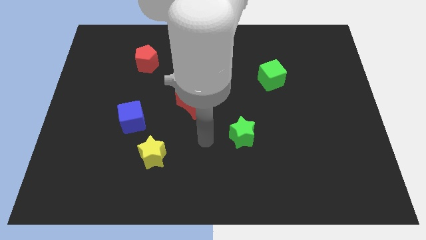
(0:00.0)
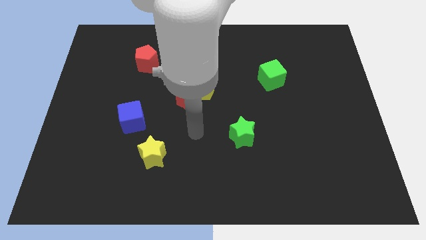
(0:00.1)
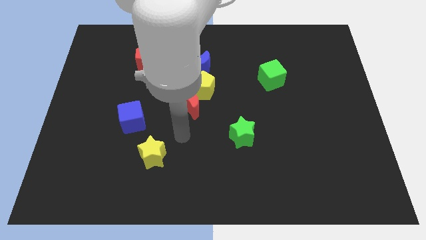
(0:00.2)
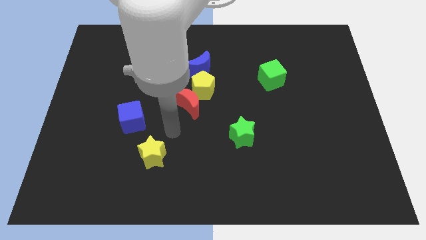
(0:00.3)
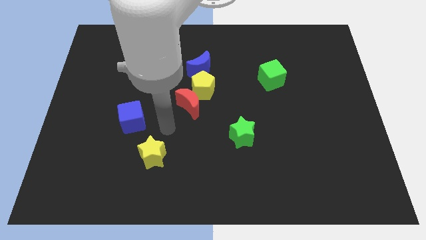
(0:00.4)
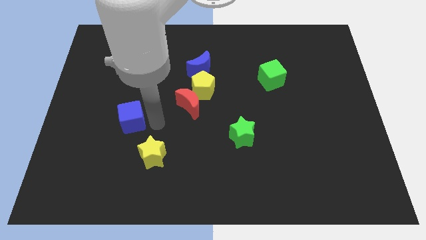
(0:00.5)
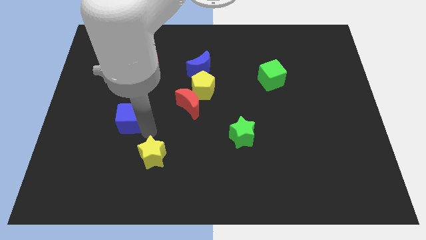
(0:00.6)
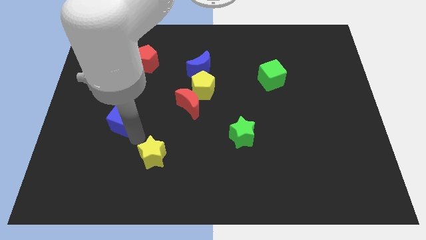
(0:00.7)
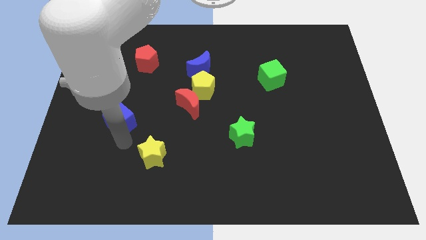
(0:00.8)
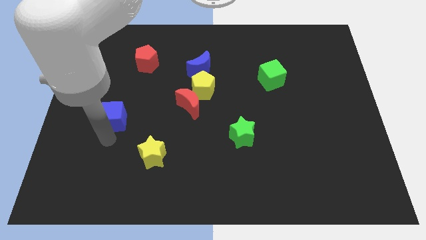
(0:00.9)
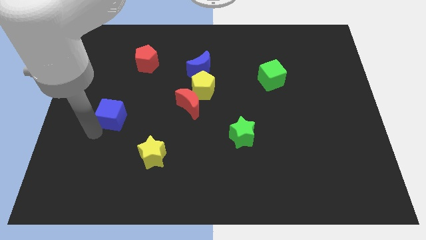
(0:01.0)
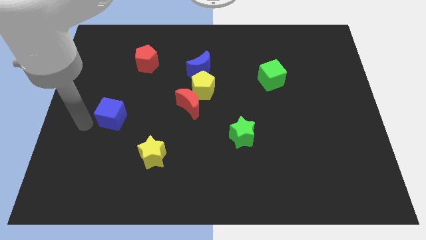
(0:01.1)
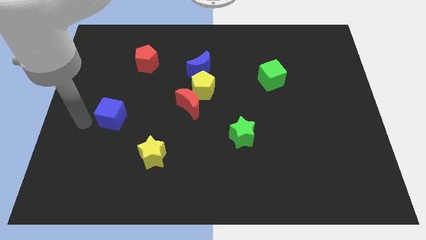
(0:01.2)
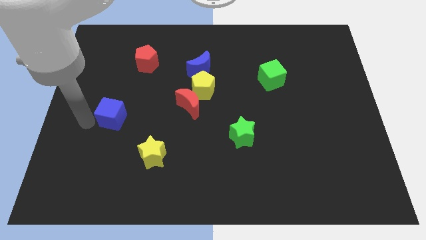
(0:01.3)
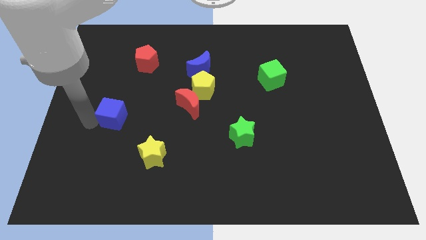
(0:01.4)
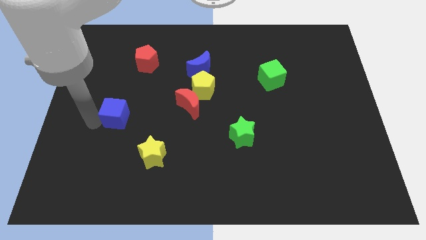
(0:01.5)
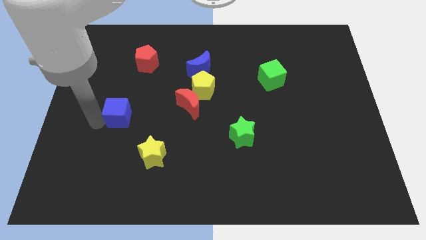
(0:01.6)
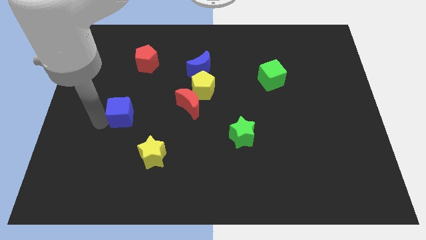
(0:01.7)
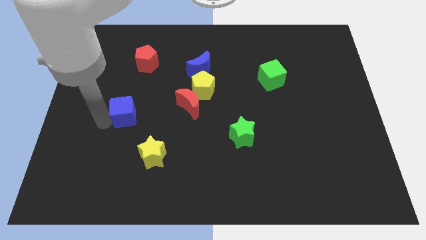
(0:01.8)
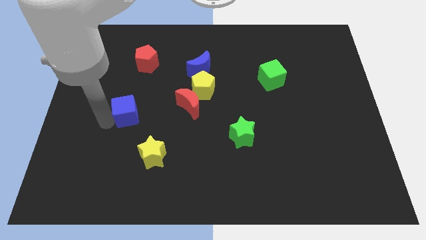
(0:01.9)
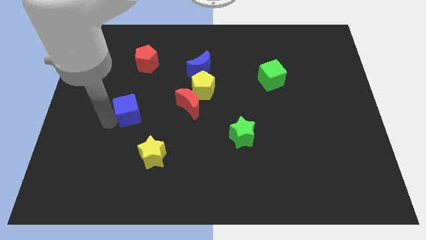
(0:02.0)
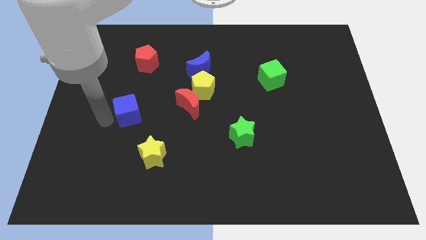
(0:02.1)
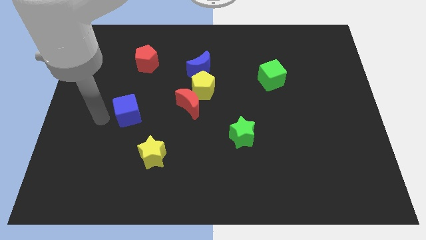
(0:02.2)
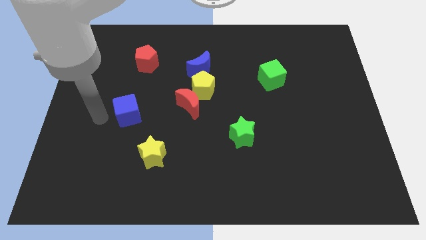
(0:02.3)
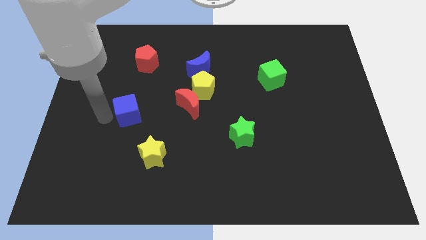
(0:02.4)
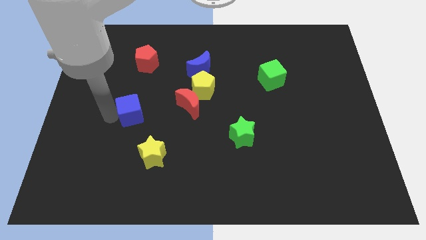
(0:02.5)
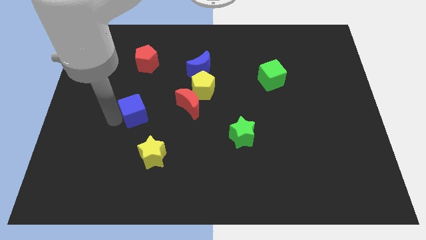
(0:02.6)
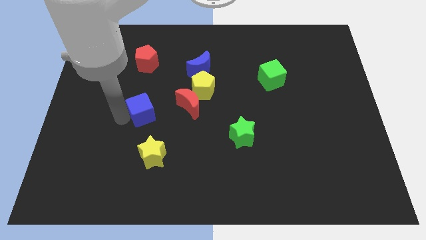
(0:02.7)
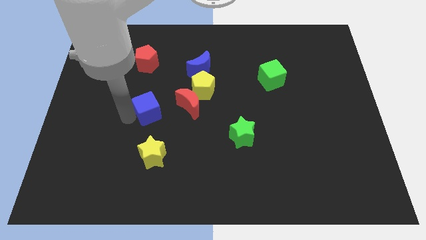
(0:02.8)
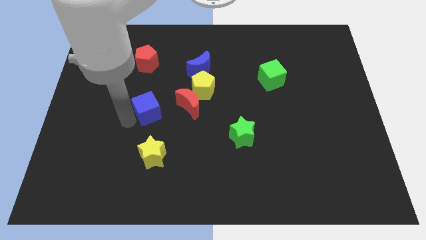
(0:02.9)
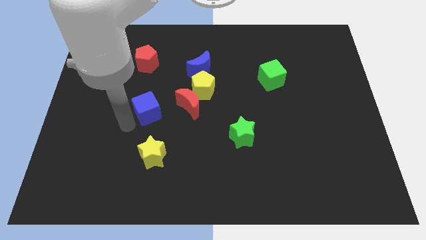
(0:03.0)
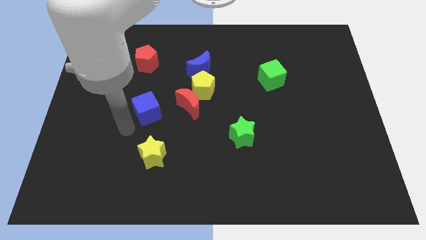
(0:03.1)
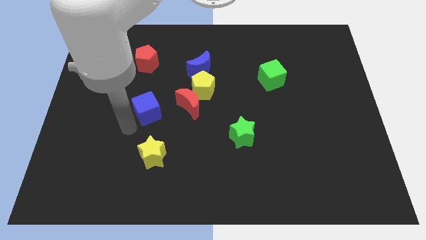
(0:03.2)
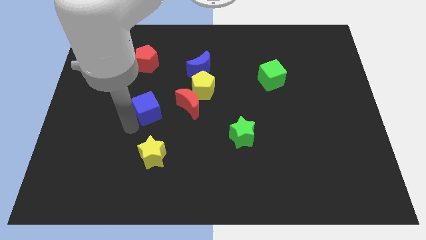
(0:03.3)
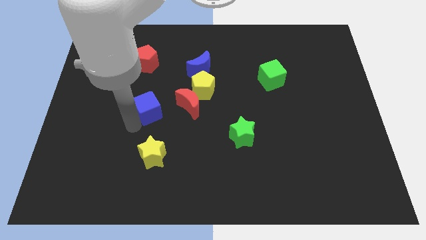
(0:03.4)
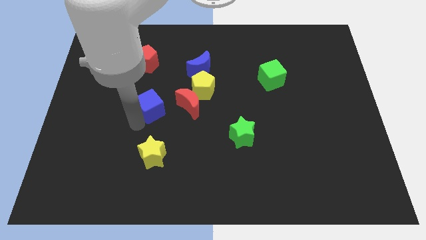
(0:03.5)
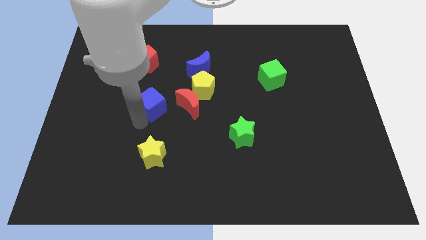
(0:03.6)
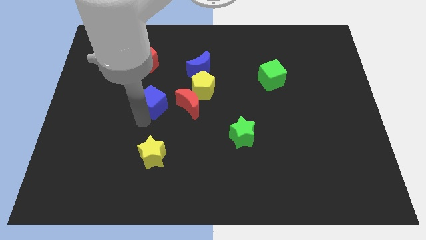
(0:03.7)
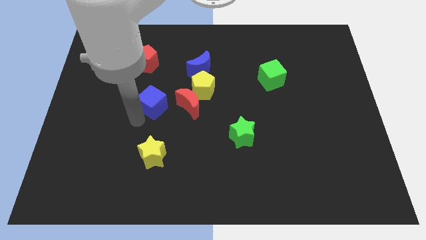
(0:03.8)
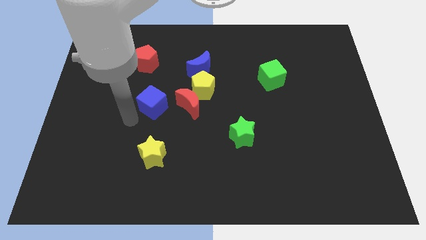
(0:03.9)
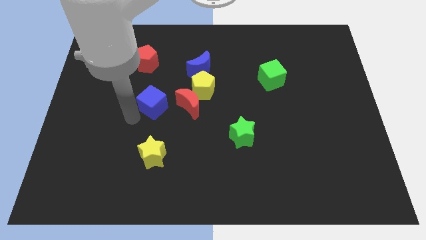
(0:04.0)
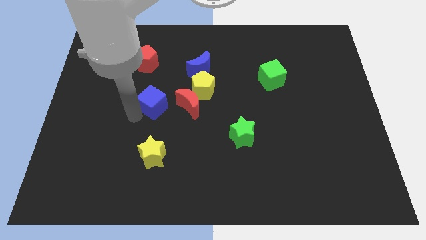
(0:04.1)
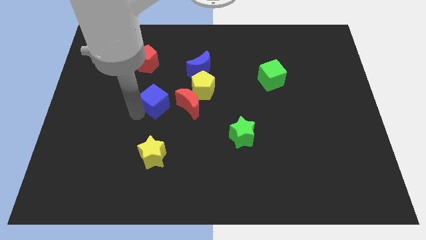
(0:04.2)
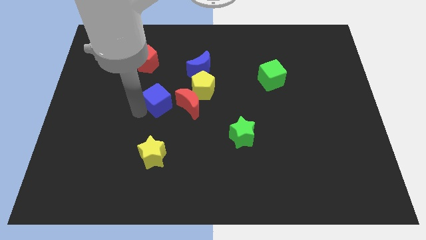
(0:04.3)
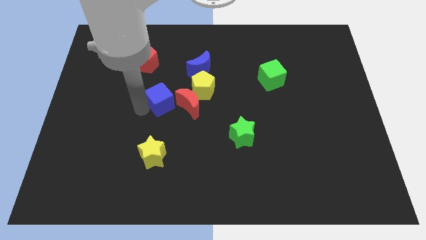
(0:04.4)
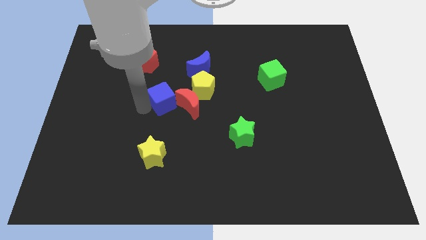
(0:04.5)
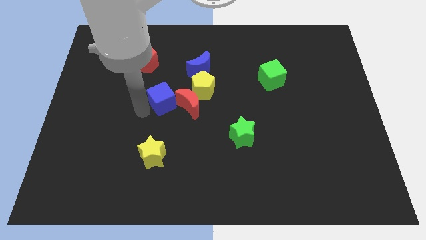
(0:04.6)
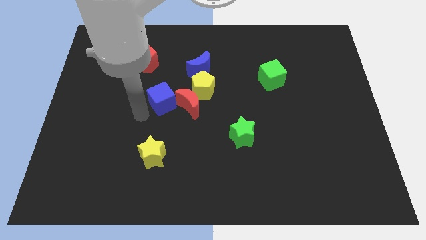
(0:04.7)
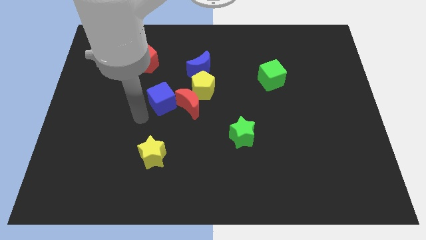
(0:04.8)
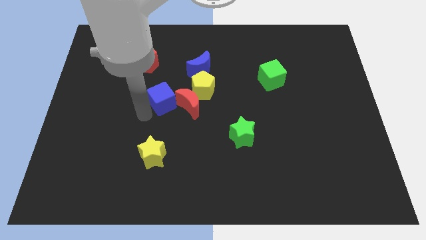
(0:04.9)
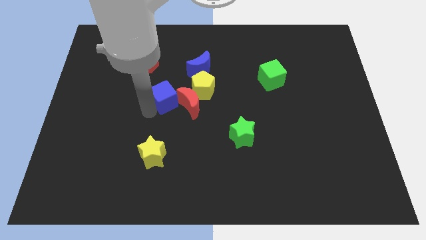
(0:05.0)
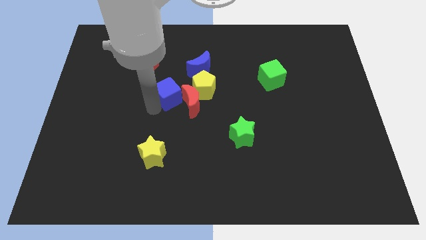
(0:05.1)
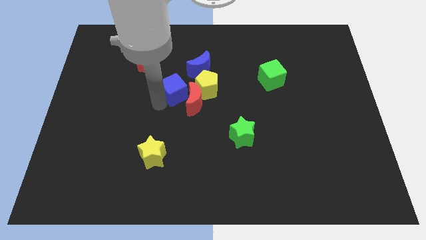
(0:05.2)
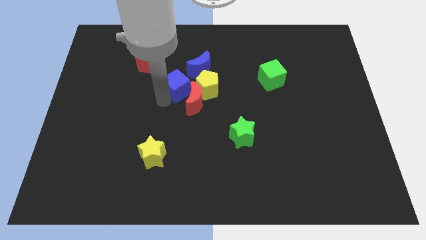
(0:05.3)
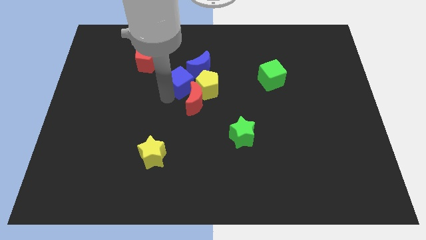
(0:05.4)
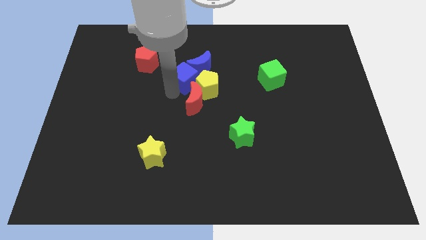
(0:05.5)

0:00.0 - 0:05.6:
slide the blue cube next to the blue moon

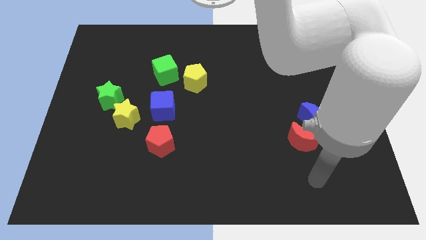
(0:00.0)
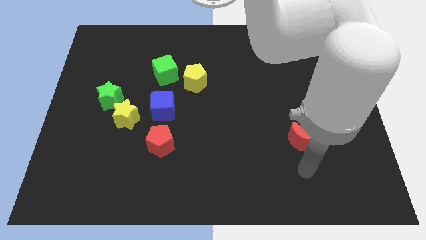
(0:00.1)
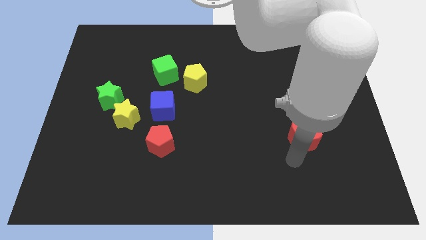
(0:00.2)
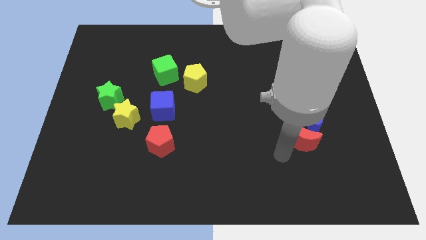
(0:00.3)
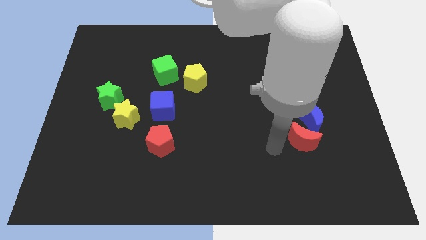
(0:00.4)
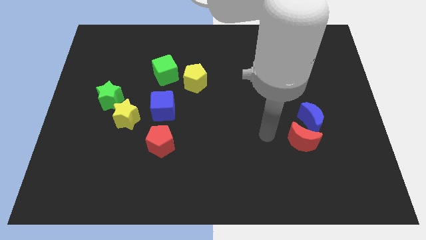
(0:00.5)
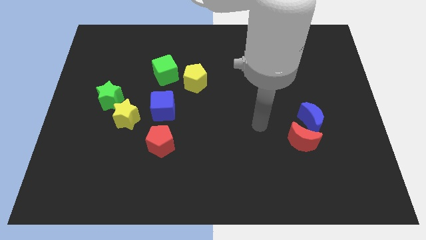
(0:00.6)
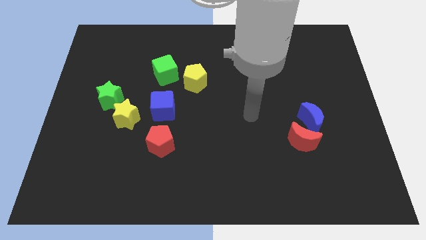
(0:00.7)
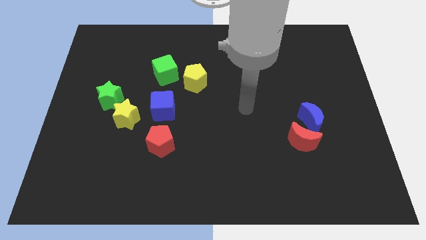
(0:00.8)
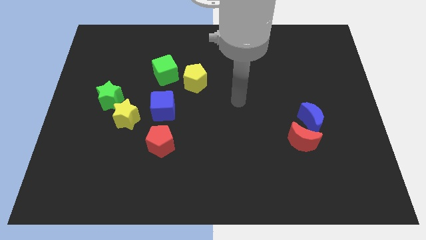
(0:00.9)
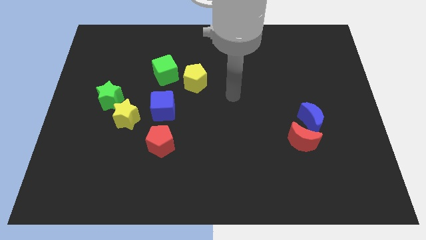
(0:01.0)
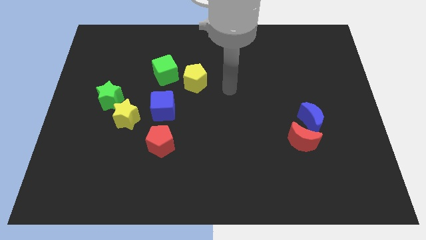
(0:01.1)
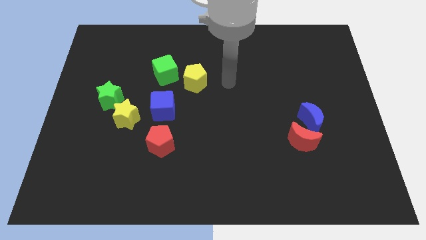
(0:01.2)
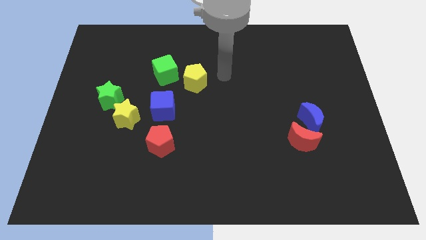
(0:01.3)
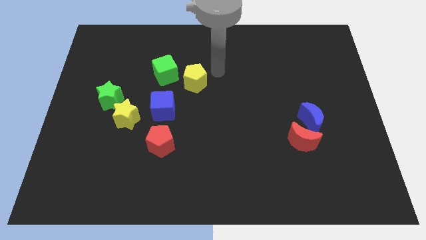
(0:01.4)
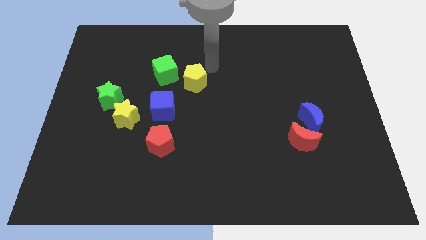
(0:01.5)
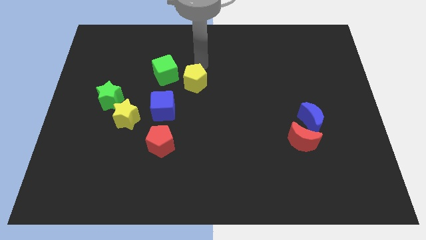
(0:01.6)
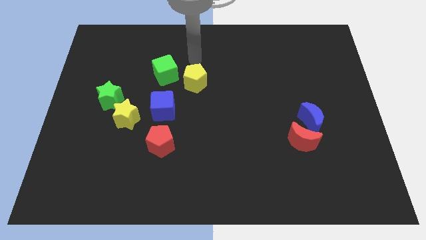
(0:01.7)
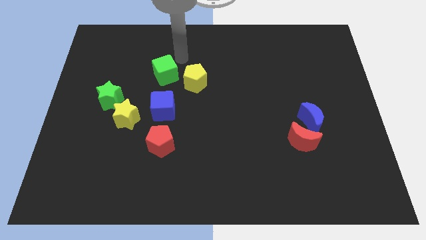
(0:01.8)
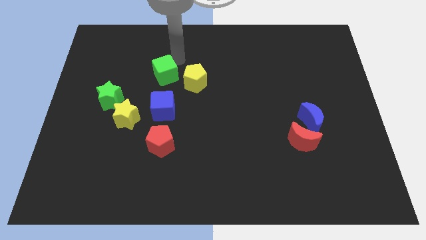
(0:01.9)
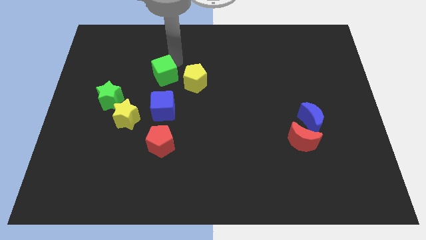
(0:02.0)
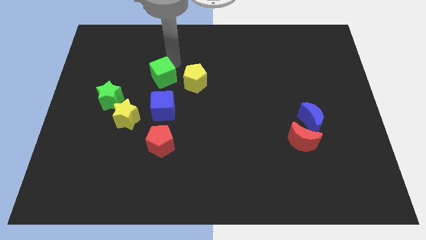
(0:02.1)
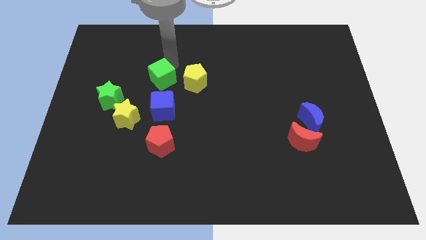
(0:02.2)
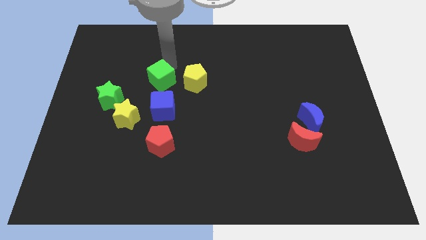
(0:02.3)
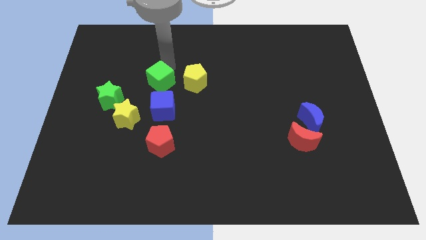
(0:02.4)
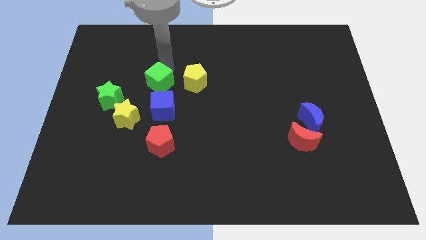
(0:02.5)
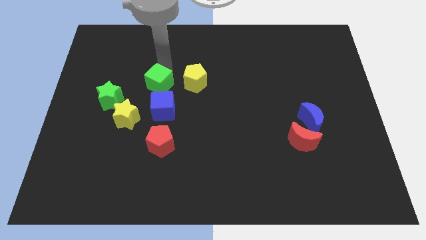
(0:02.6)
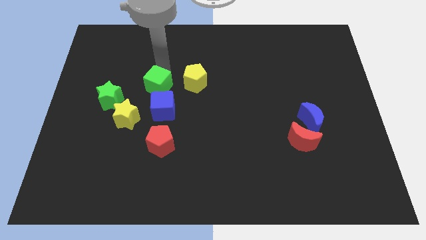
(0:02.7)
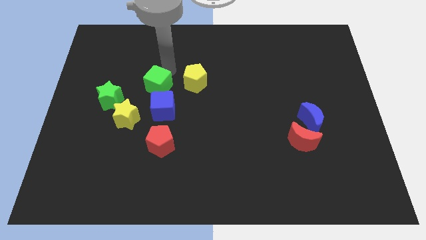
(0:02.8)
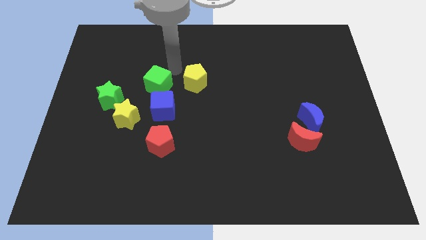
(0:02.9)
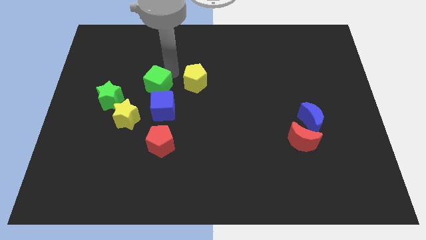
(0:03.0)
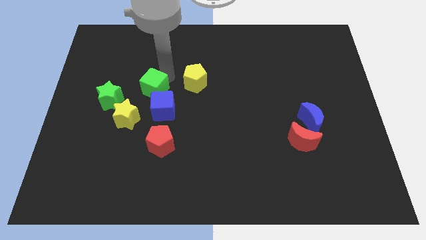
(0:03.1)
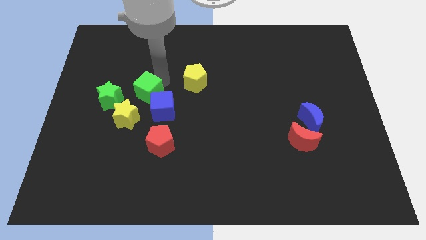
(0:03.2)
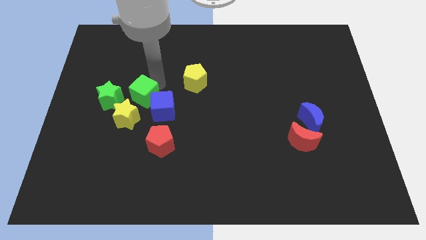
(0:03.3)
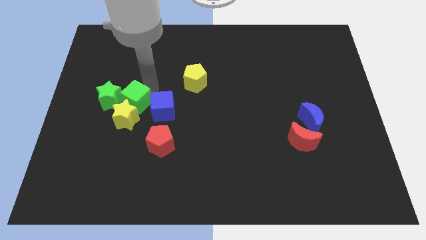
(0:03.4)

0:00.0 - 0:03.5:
slide the green cube close to the yellow star
